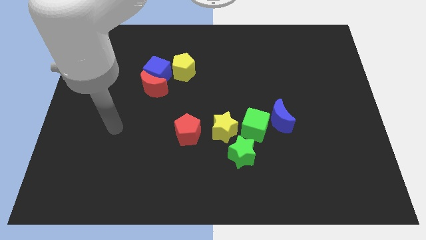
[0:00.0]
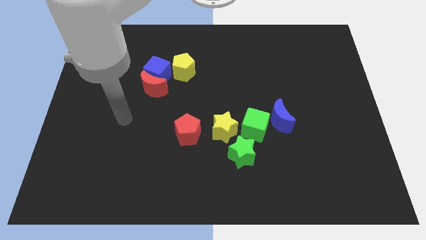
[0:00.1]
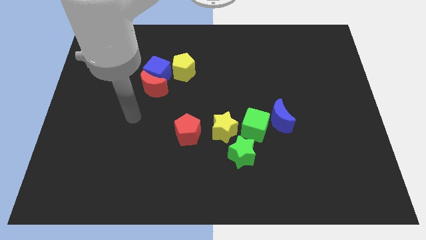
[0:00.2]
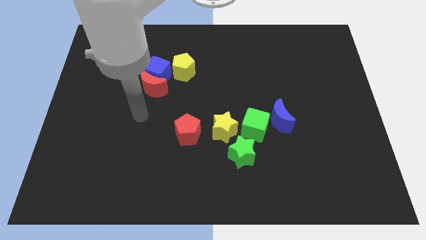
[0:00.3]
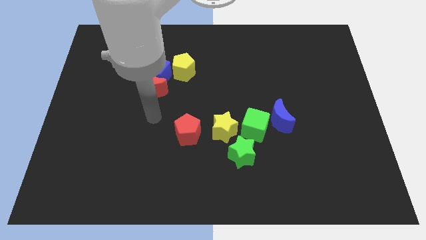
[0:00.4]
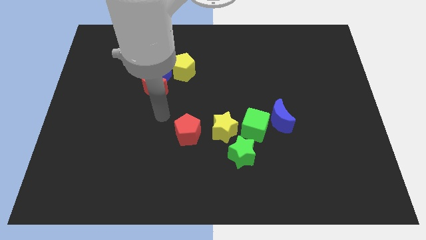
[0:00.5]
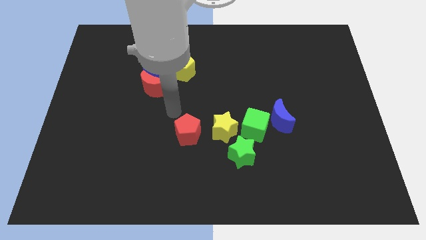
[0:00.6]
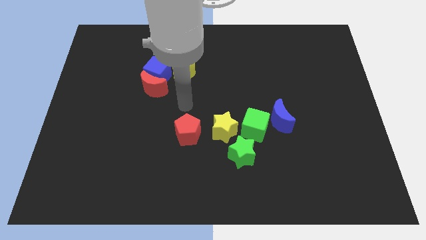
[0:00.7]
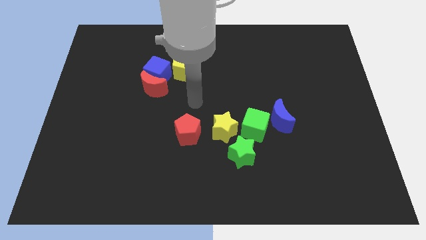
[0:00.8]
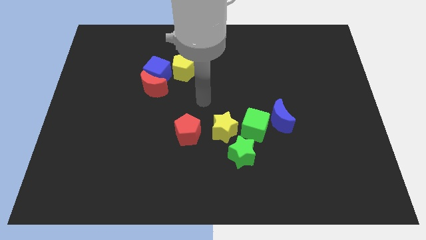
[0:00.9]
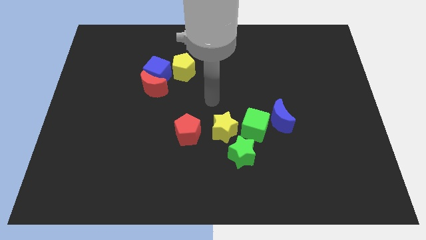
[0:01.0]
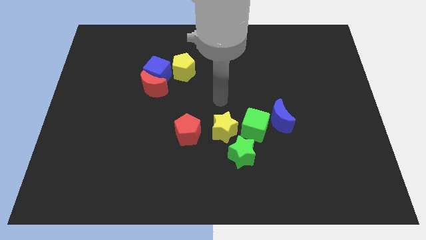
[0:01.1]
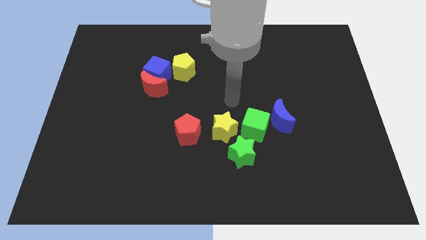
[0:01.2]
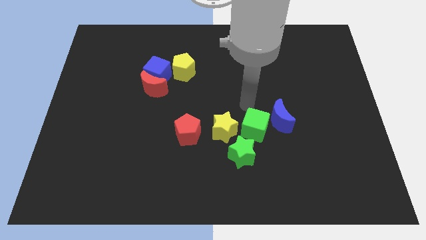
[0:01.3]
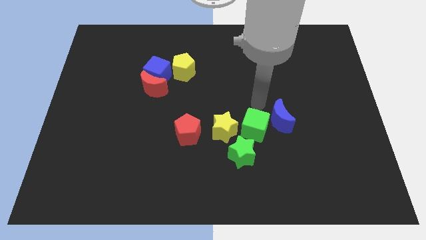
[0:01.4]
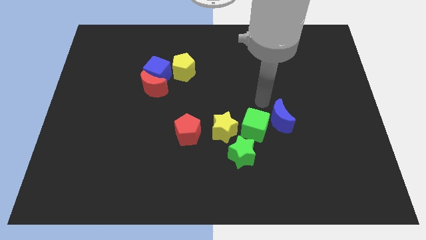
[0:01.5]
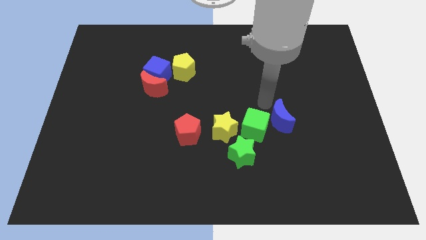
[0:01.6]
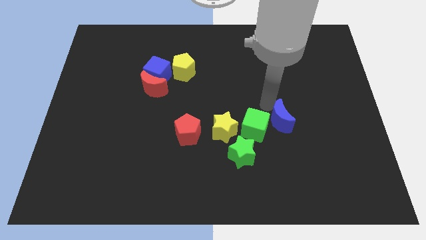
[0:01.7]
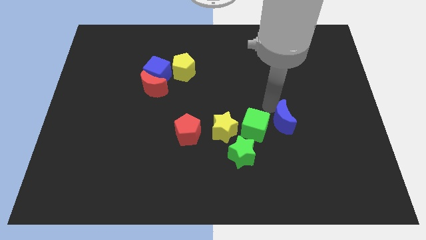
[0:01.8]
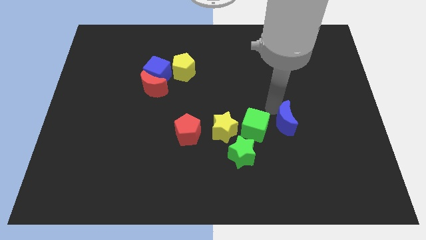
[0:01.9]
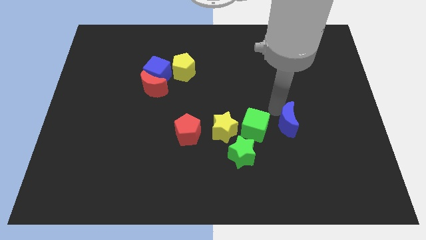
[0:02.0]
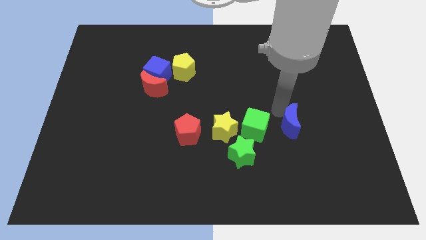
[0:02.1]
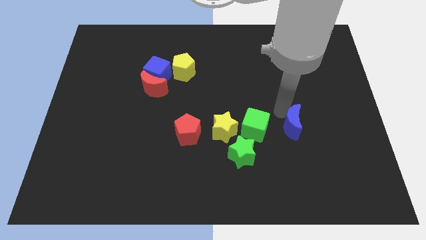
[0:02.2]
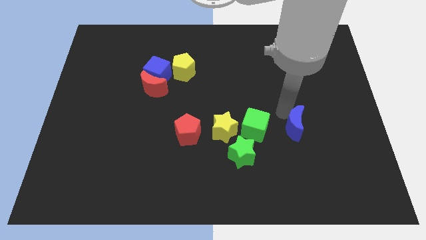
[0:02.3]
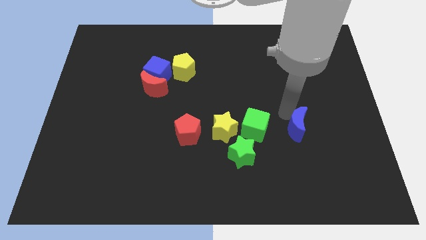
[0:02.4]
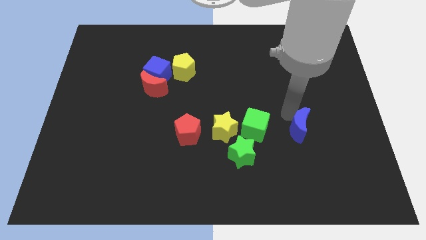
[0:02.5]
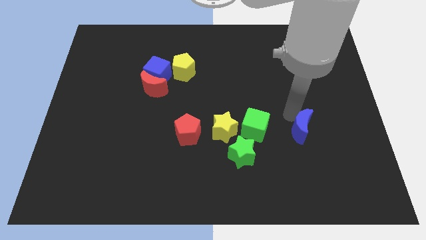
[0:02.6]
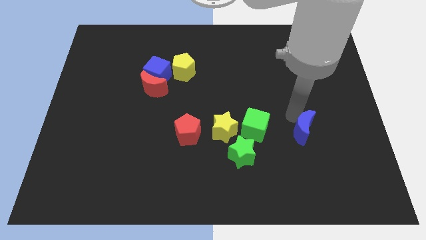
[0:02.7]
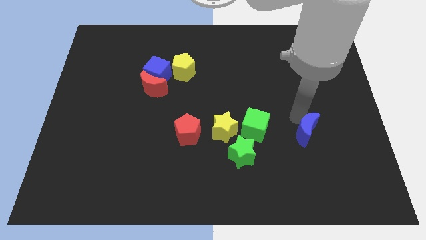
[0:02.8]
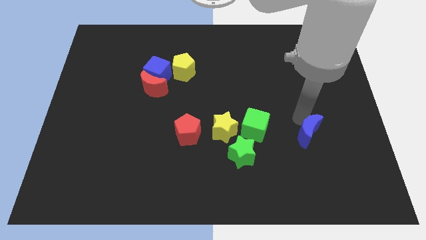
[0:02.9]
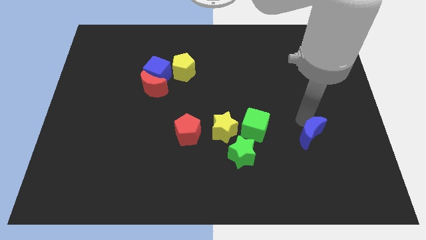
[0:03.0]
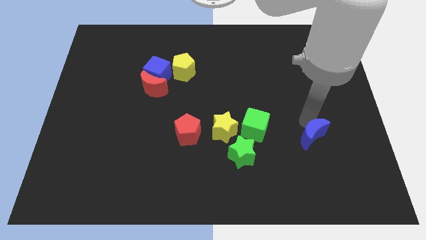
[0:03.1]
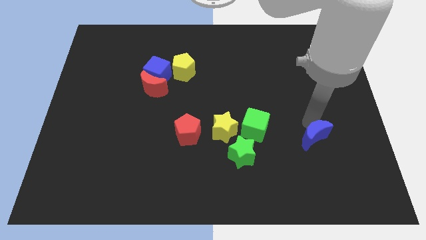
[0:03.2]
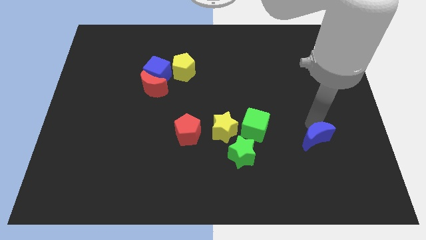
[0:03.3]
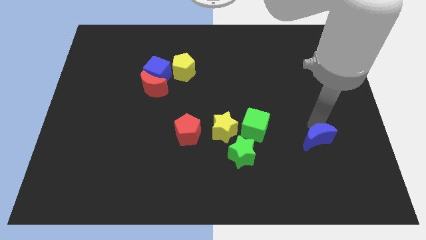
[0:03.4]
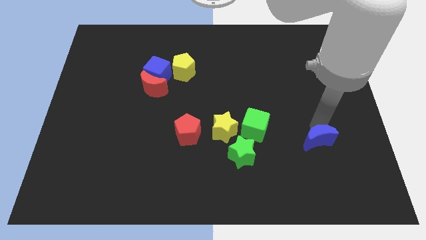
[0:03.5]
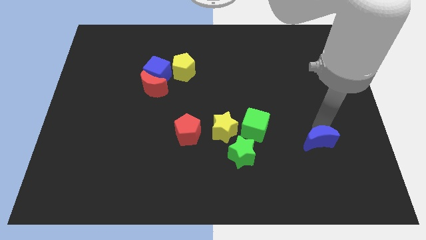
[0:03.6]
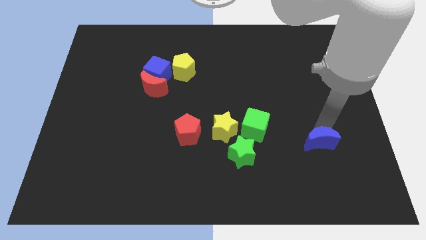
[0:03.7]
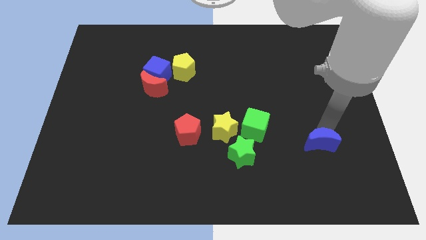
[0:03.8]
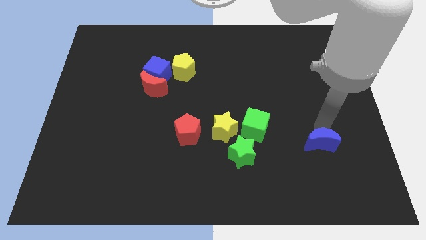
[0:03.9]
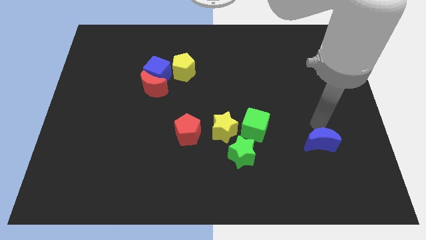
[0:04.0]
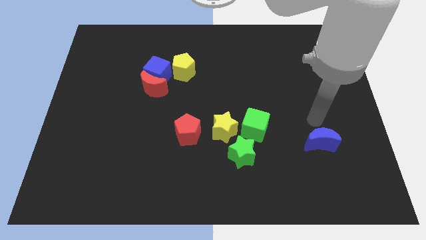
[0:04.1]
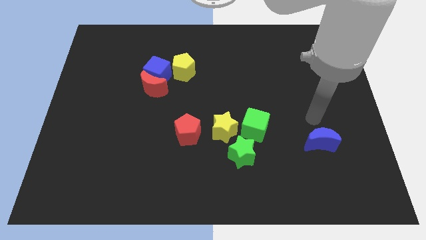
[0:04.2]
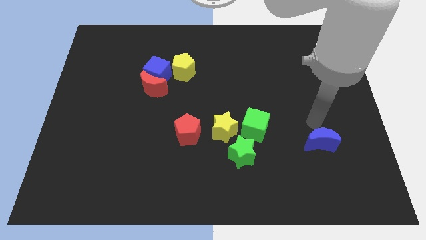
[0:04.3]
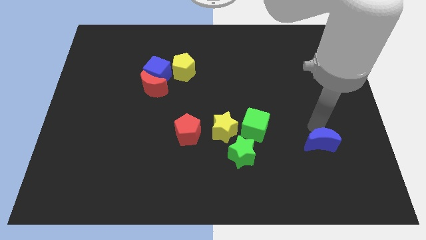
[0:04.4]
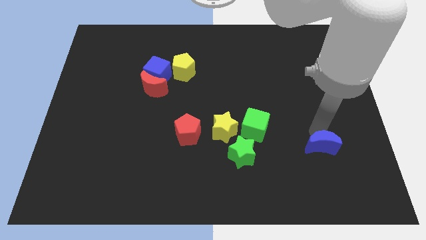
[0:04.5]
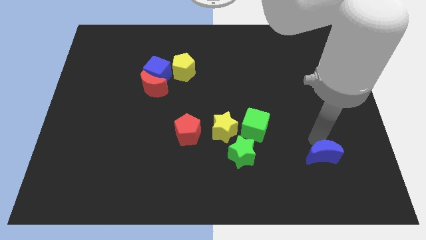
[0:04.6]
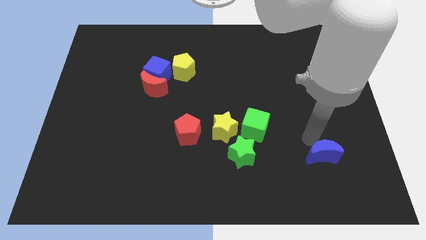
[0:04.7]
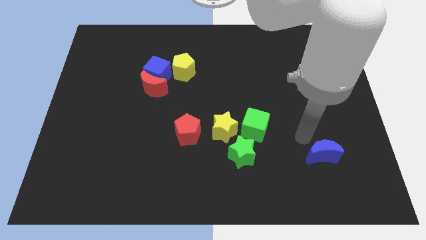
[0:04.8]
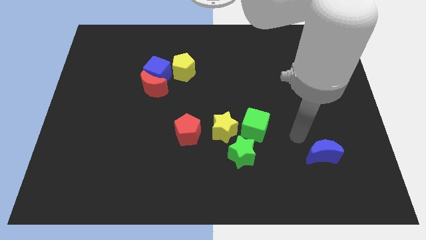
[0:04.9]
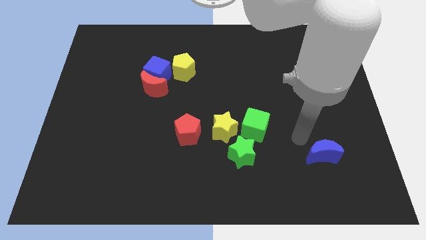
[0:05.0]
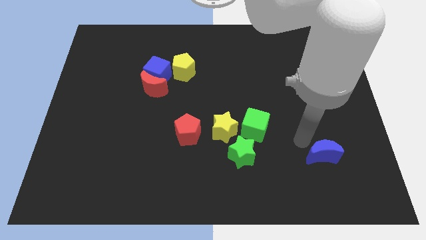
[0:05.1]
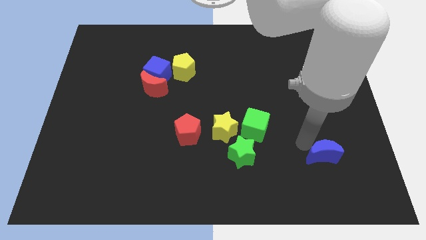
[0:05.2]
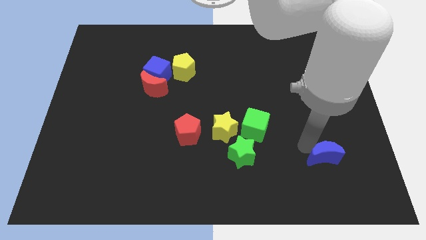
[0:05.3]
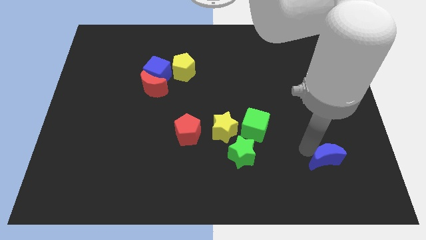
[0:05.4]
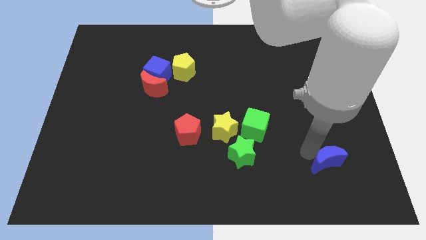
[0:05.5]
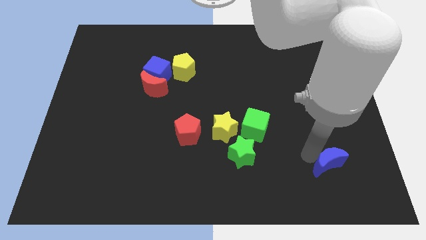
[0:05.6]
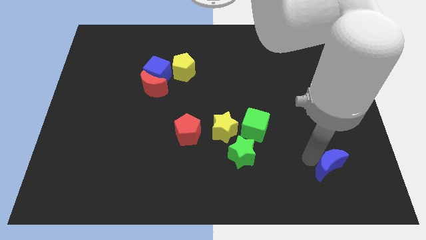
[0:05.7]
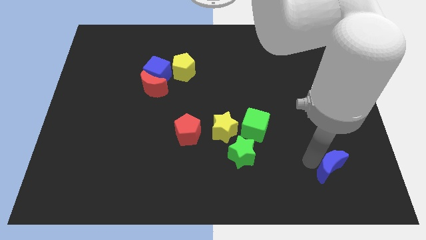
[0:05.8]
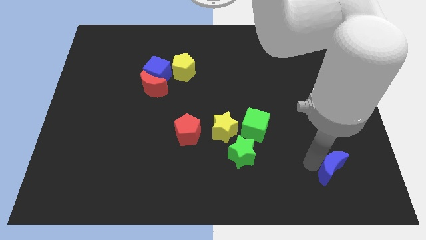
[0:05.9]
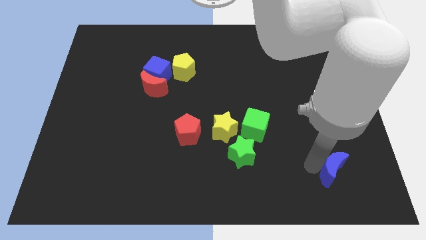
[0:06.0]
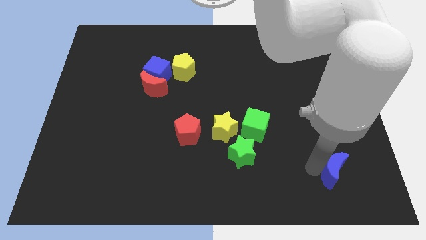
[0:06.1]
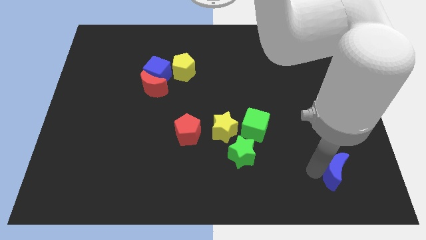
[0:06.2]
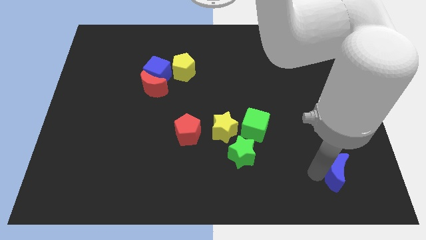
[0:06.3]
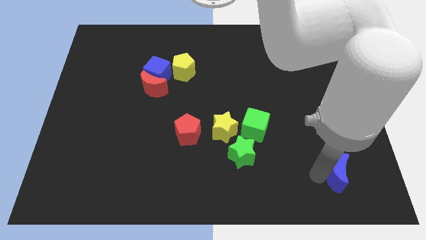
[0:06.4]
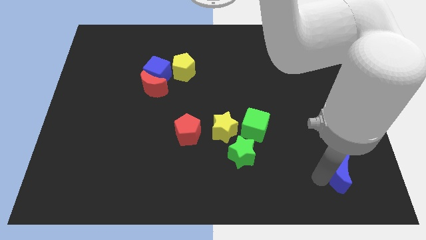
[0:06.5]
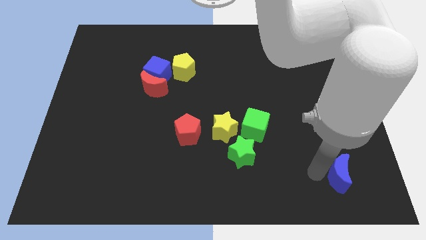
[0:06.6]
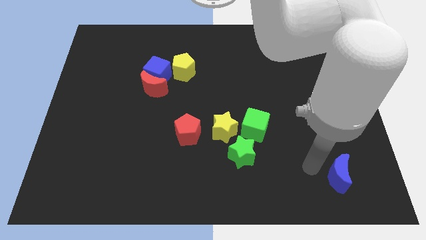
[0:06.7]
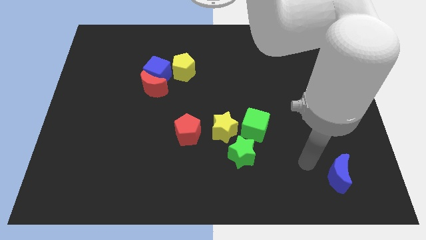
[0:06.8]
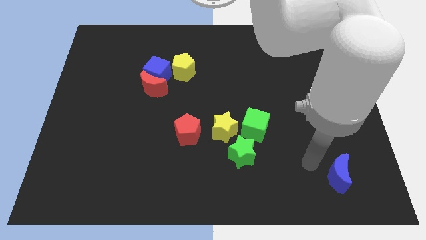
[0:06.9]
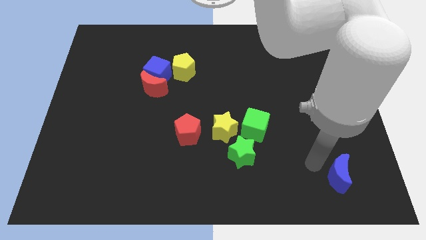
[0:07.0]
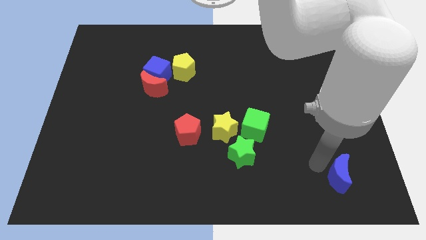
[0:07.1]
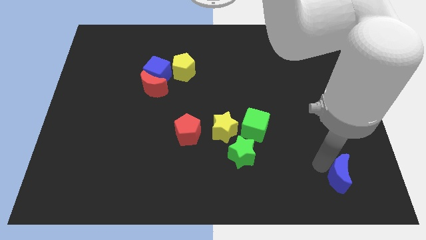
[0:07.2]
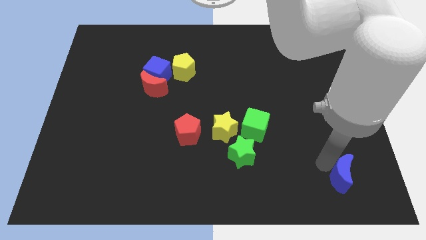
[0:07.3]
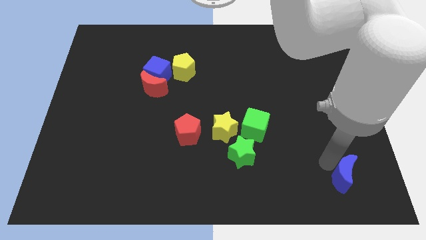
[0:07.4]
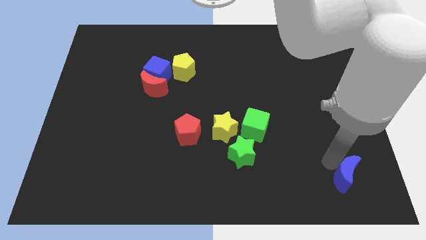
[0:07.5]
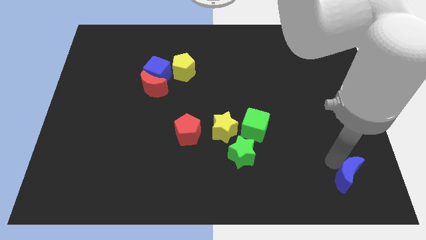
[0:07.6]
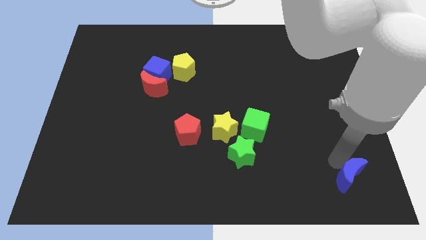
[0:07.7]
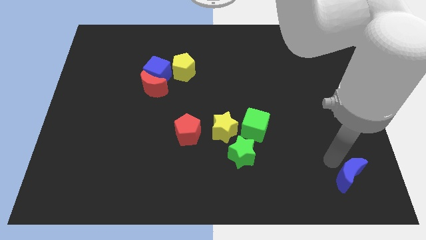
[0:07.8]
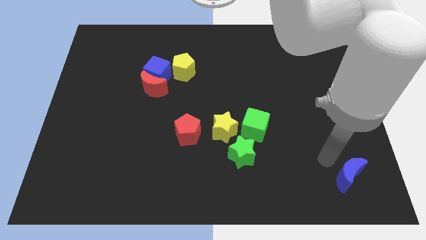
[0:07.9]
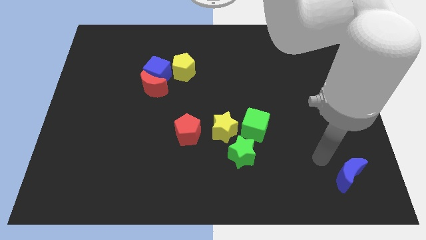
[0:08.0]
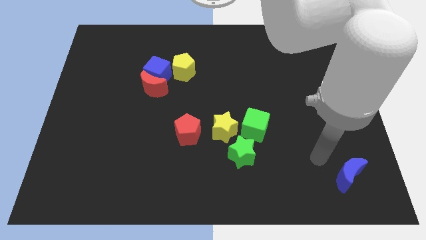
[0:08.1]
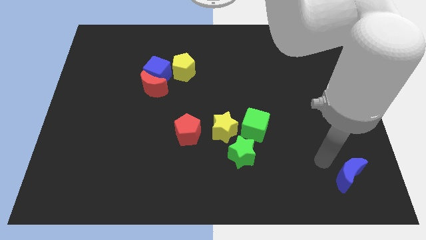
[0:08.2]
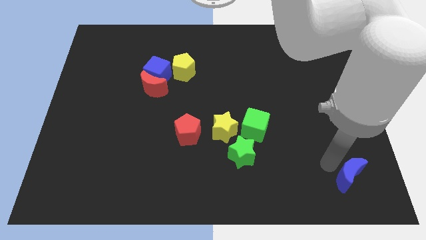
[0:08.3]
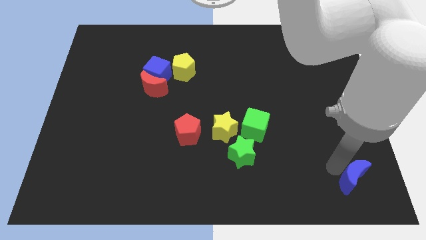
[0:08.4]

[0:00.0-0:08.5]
put the blue moon to the bottom right of the board
